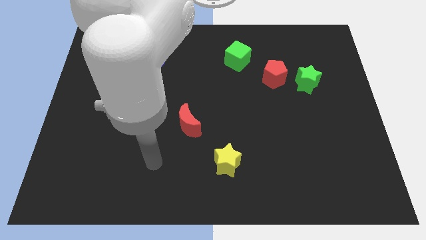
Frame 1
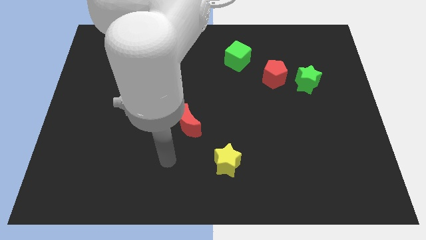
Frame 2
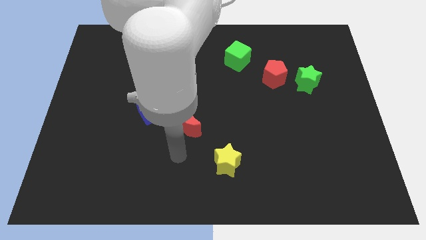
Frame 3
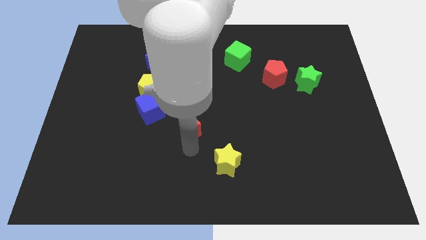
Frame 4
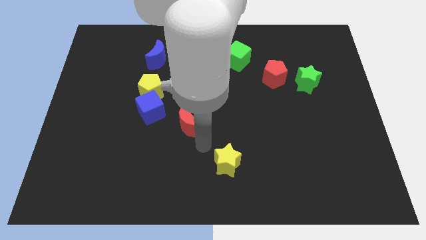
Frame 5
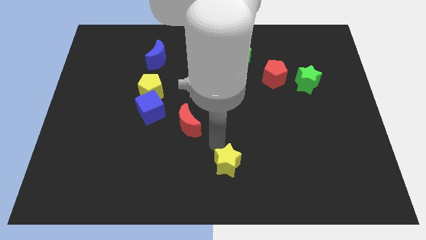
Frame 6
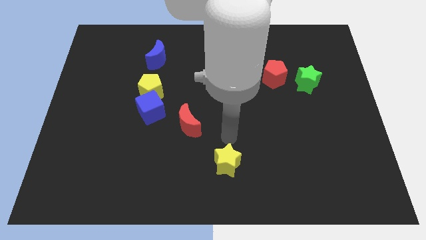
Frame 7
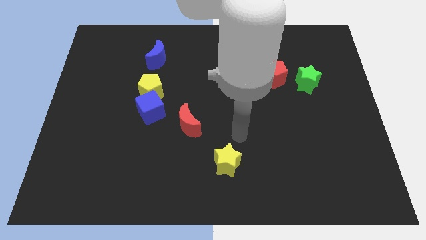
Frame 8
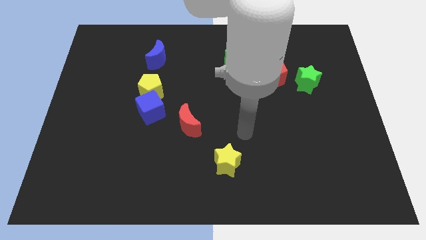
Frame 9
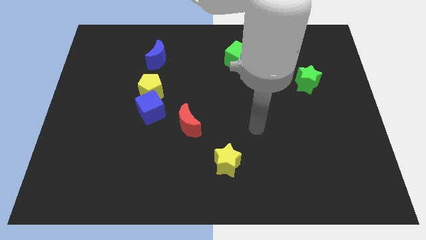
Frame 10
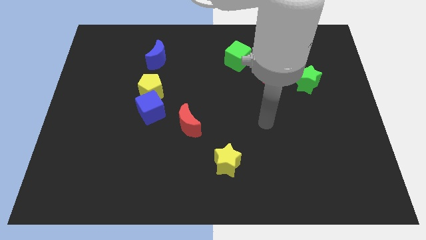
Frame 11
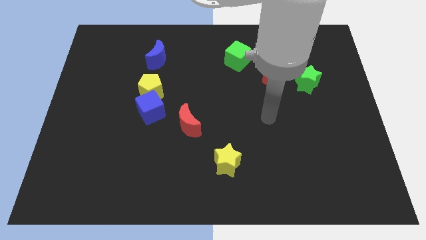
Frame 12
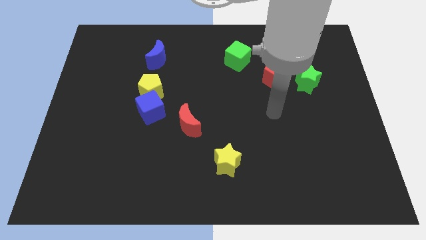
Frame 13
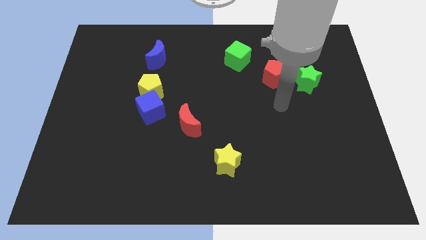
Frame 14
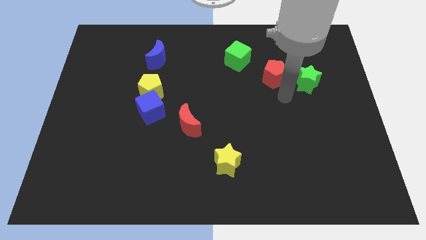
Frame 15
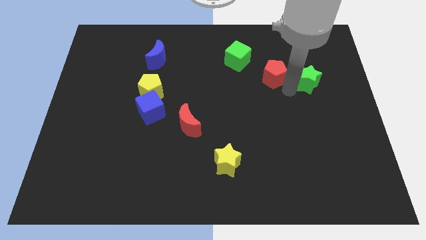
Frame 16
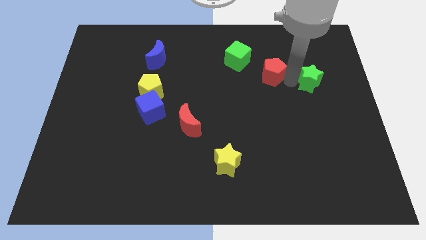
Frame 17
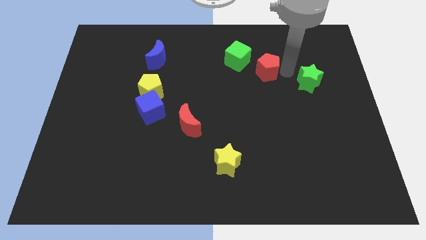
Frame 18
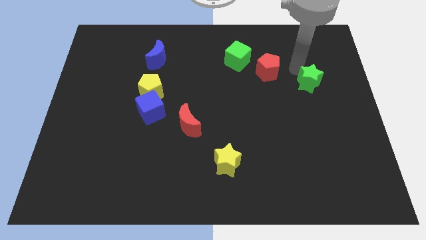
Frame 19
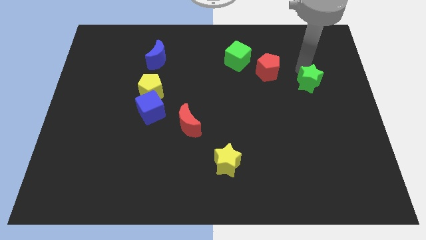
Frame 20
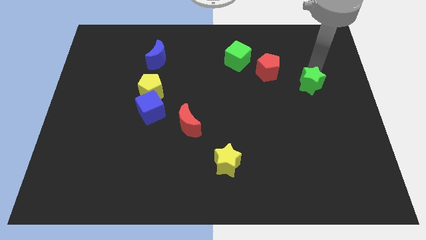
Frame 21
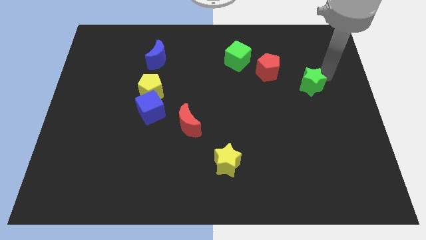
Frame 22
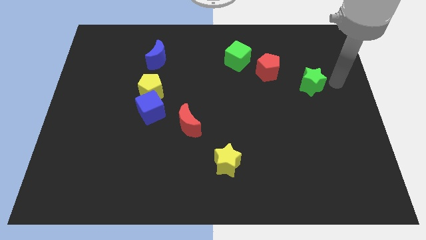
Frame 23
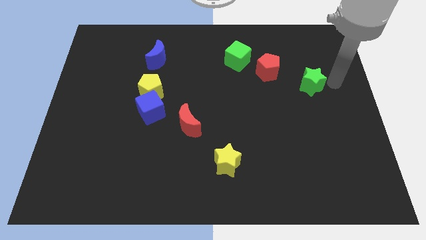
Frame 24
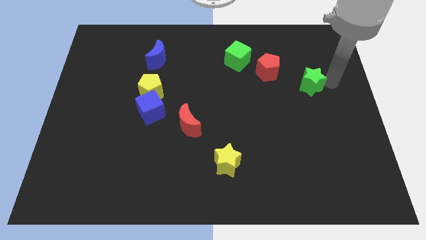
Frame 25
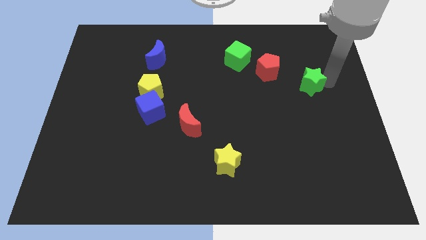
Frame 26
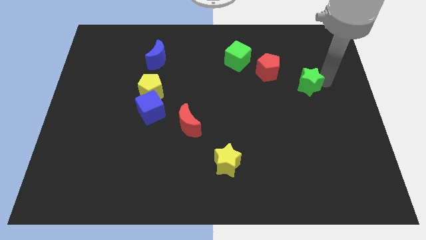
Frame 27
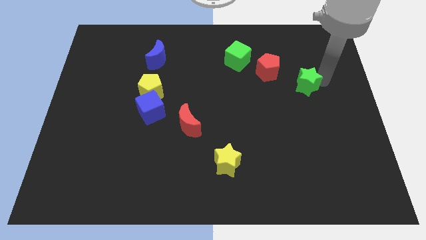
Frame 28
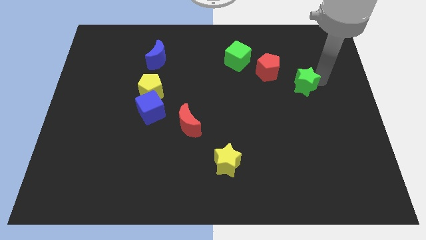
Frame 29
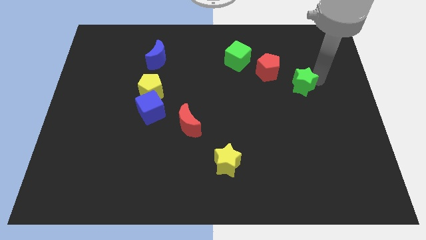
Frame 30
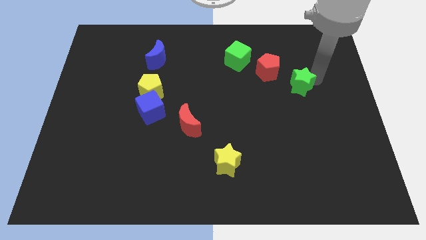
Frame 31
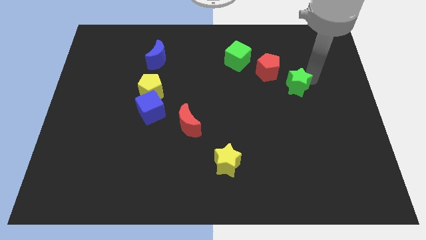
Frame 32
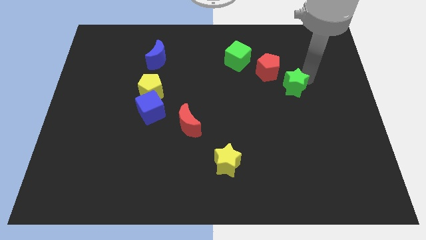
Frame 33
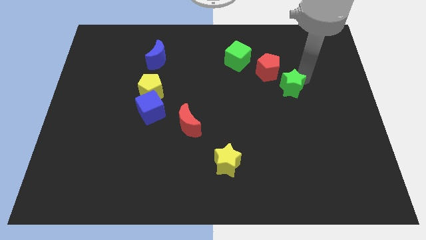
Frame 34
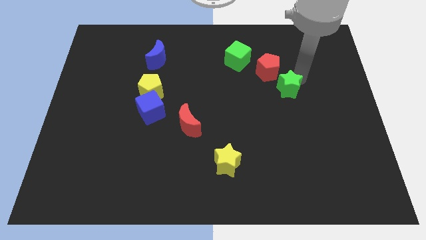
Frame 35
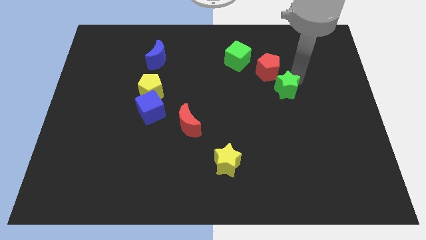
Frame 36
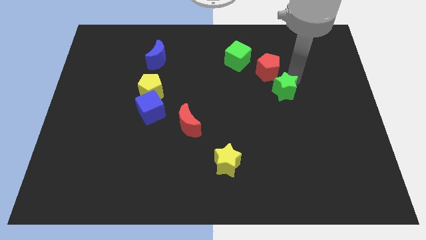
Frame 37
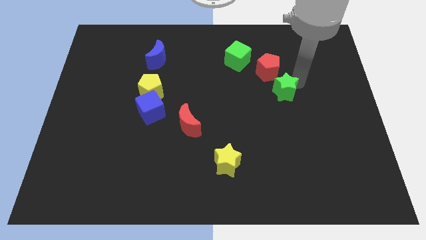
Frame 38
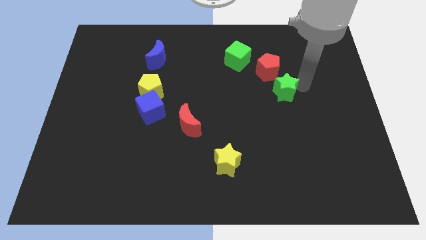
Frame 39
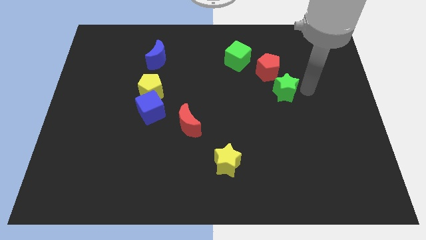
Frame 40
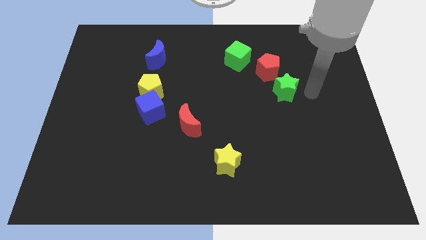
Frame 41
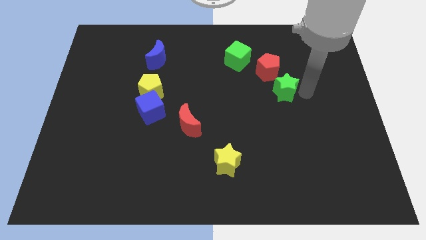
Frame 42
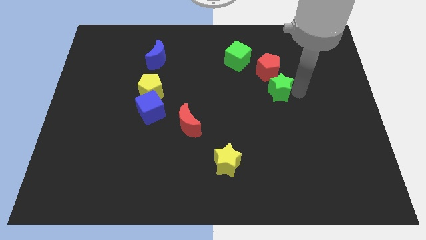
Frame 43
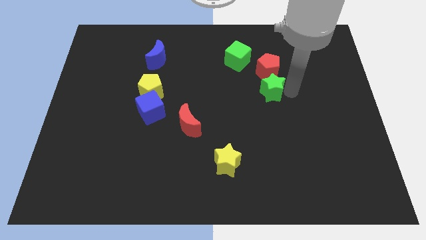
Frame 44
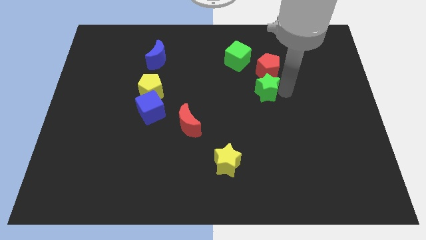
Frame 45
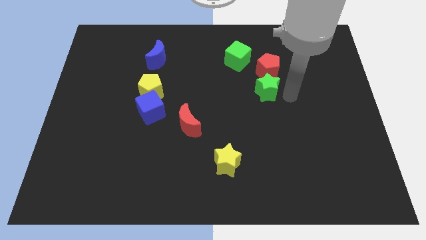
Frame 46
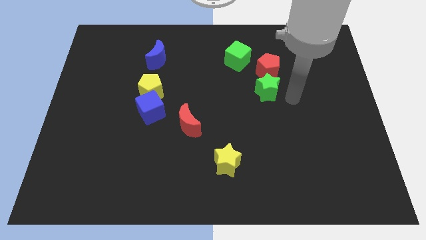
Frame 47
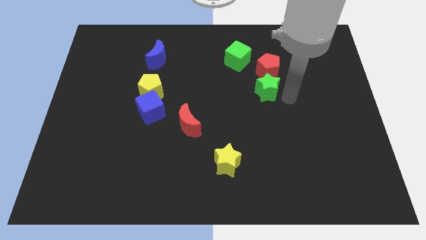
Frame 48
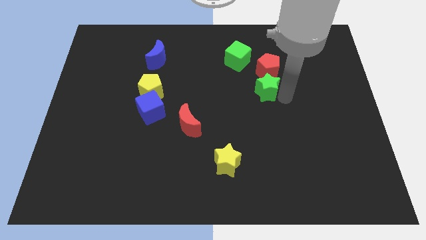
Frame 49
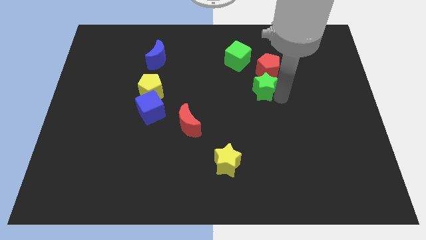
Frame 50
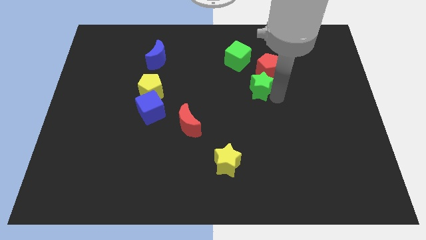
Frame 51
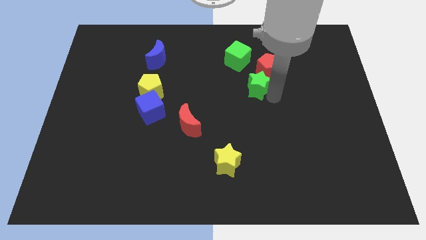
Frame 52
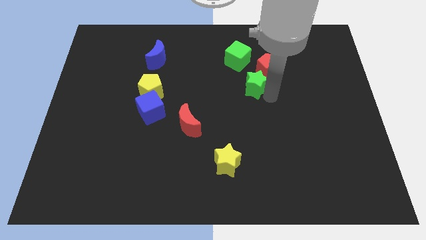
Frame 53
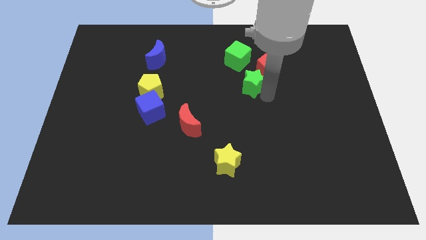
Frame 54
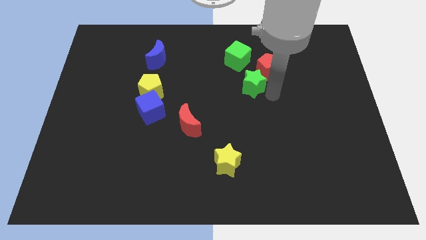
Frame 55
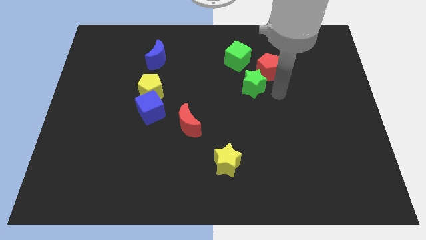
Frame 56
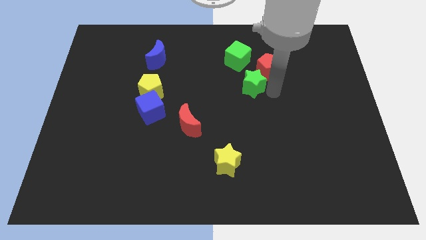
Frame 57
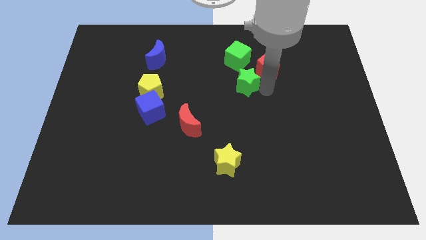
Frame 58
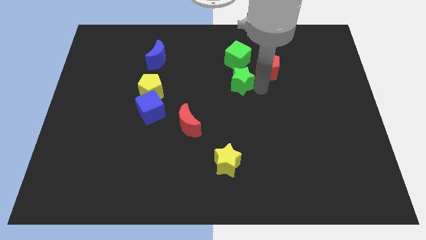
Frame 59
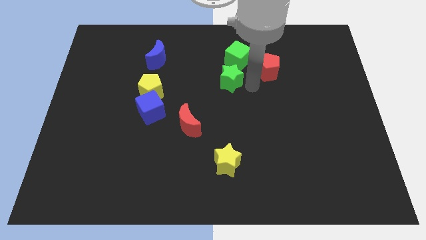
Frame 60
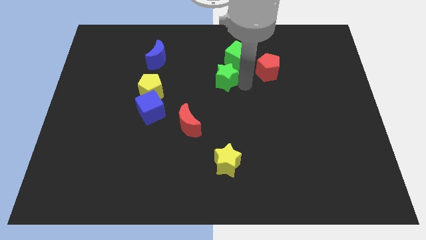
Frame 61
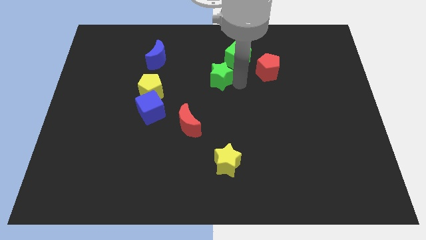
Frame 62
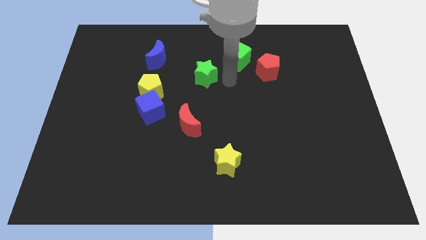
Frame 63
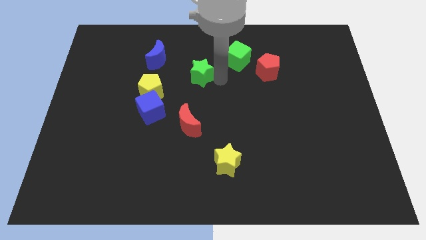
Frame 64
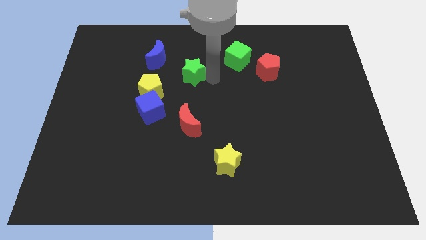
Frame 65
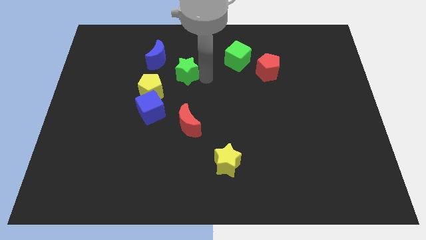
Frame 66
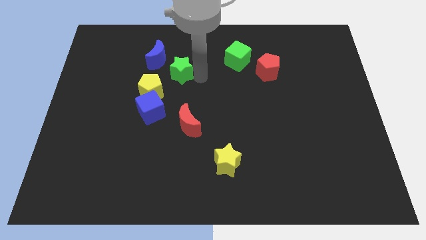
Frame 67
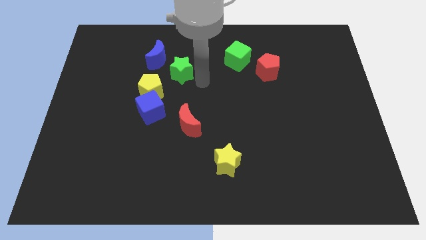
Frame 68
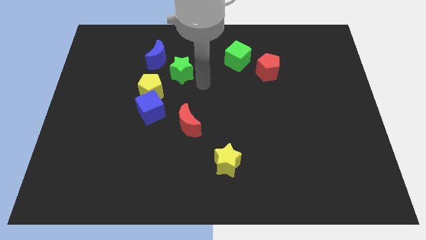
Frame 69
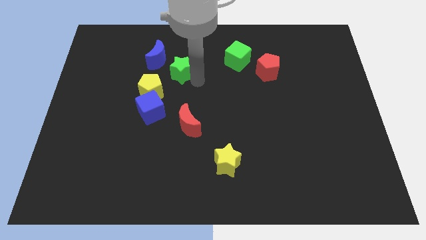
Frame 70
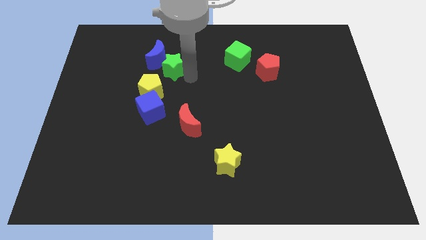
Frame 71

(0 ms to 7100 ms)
put the green star to the blue moon

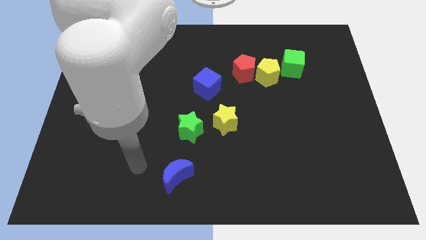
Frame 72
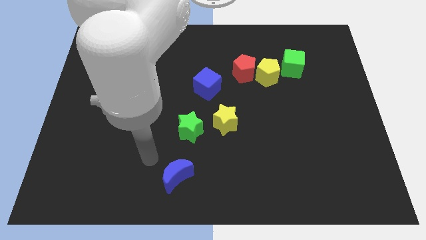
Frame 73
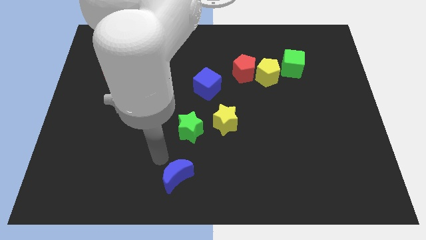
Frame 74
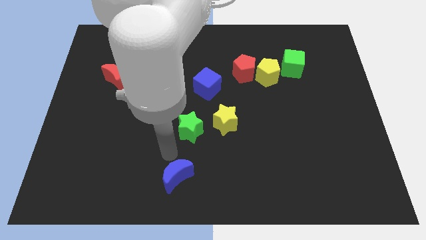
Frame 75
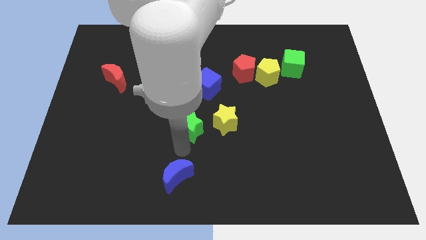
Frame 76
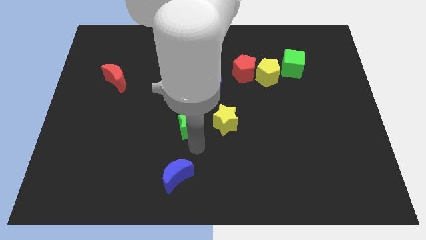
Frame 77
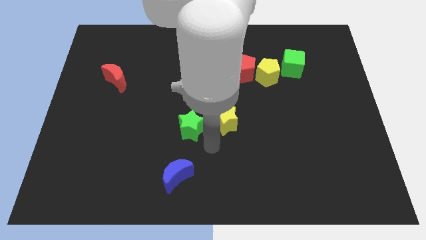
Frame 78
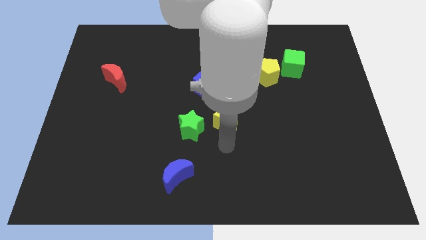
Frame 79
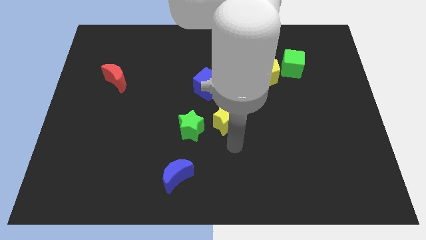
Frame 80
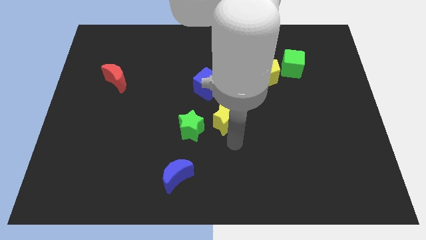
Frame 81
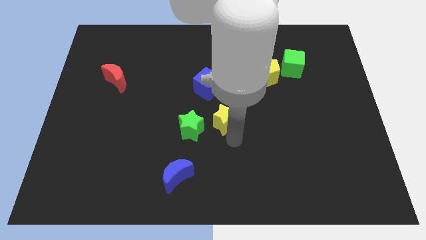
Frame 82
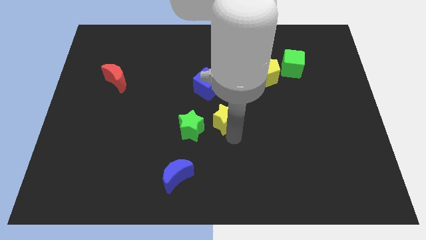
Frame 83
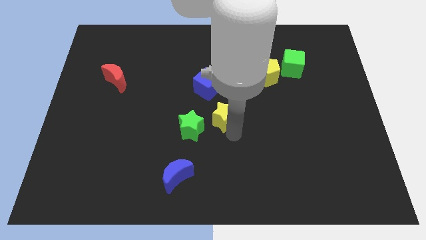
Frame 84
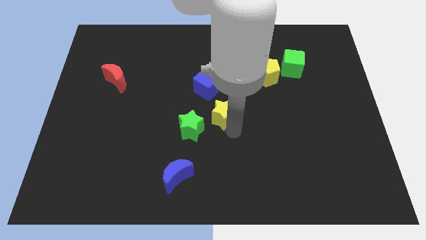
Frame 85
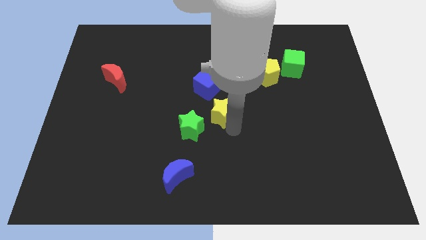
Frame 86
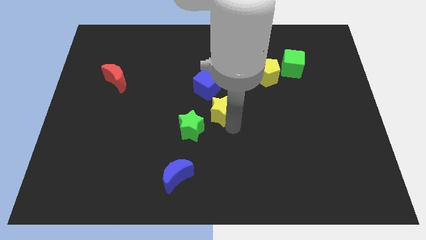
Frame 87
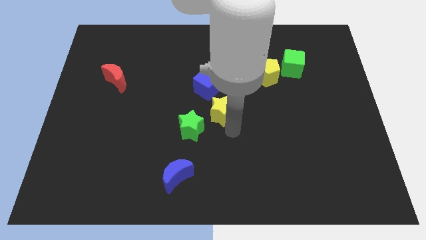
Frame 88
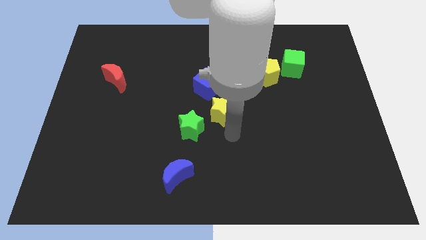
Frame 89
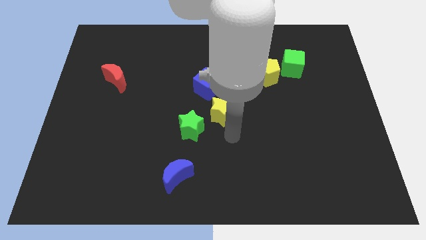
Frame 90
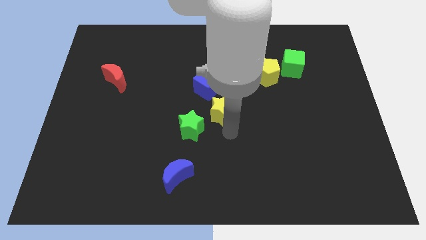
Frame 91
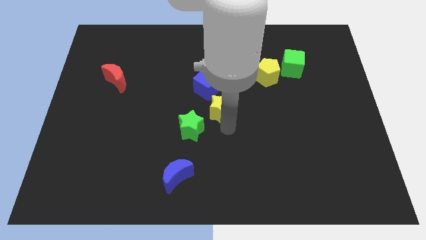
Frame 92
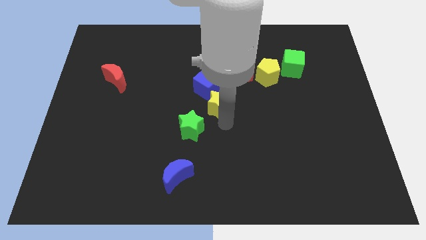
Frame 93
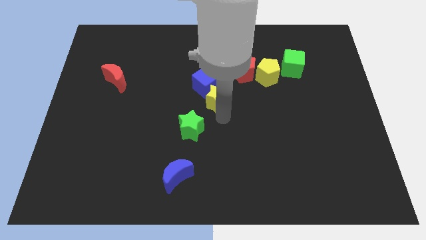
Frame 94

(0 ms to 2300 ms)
put the yellow star next to the blue cube
